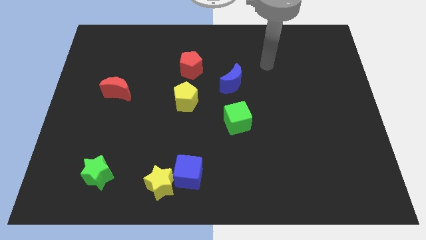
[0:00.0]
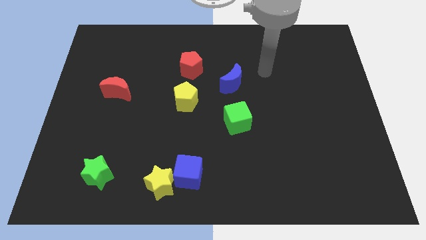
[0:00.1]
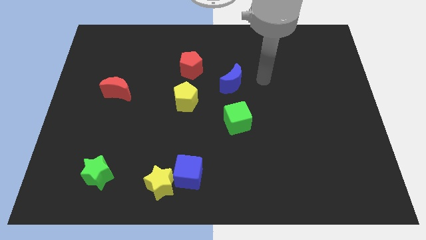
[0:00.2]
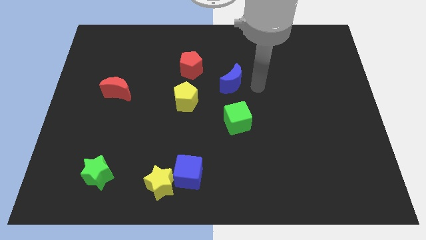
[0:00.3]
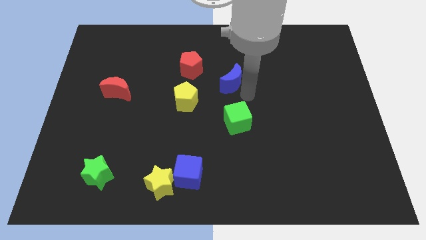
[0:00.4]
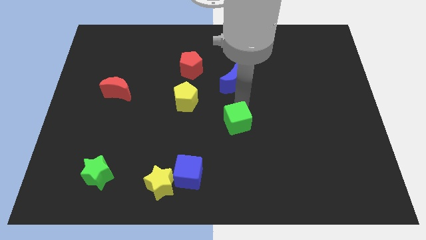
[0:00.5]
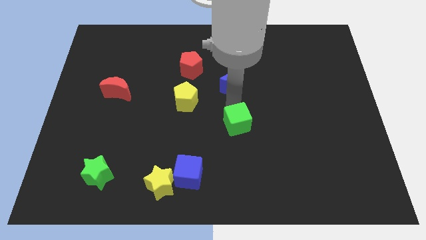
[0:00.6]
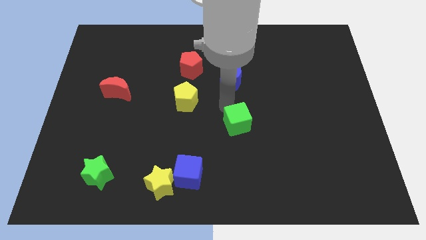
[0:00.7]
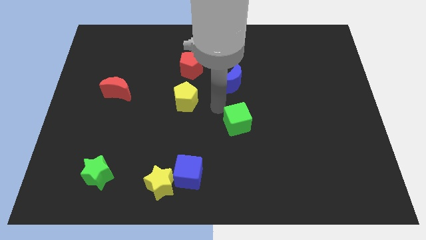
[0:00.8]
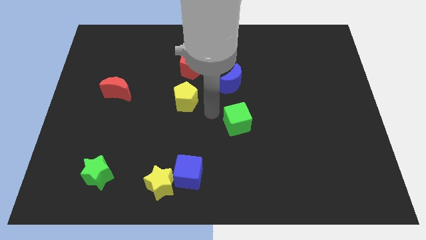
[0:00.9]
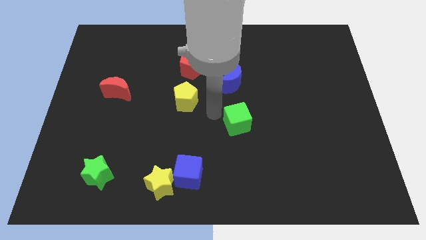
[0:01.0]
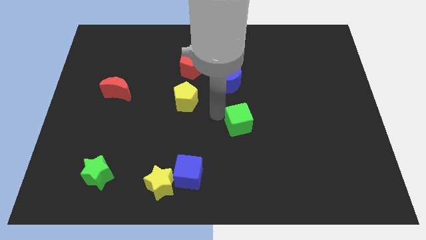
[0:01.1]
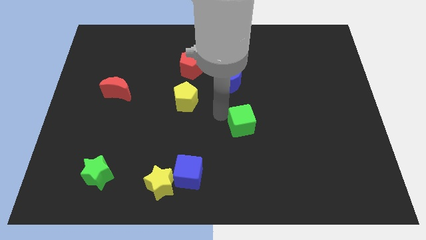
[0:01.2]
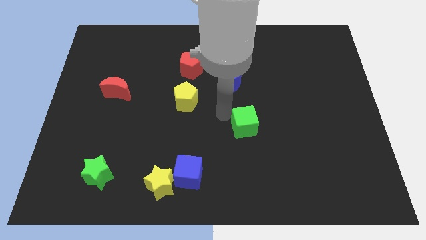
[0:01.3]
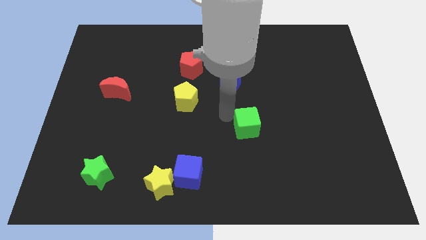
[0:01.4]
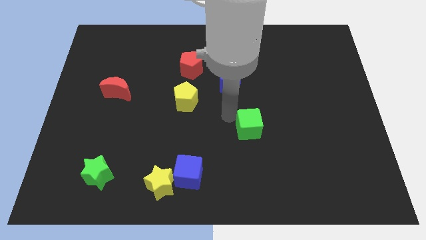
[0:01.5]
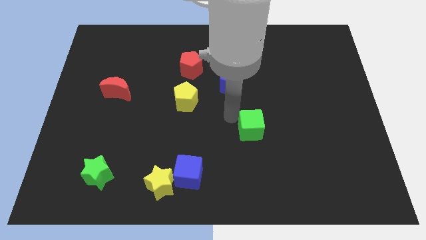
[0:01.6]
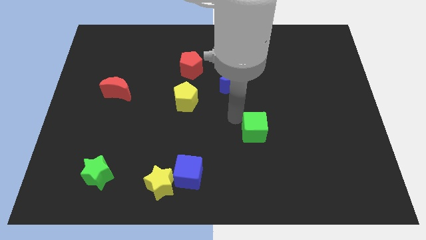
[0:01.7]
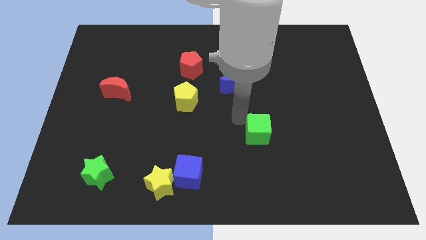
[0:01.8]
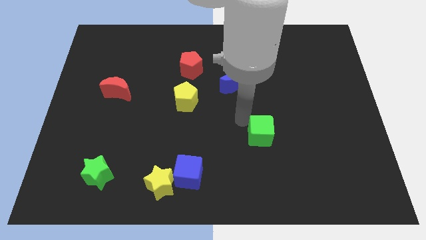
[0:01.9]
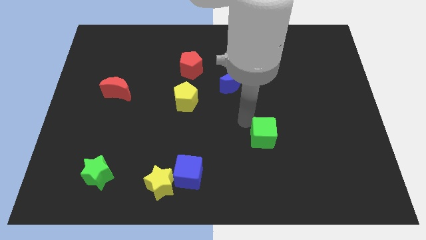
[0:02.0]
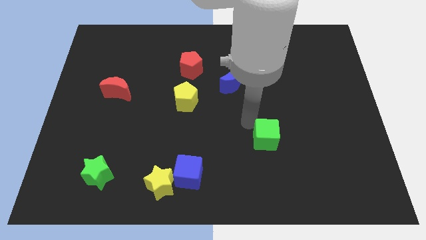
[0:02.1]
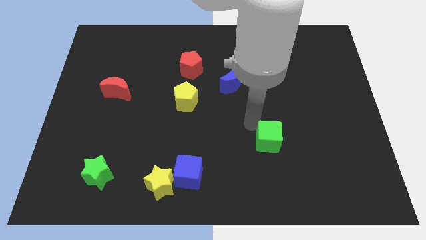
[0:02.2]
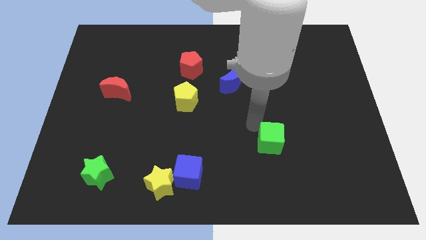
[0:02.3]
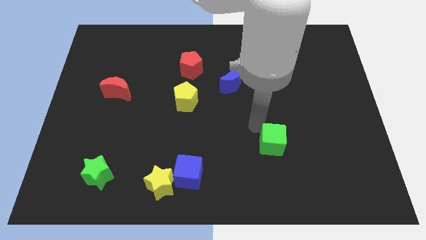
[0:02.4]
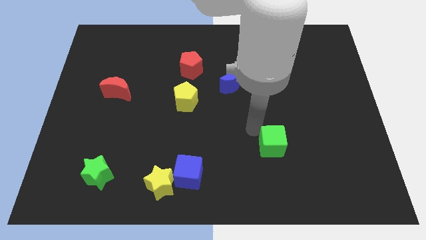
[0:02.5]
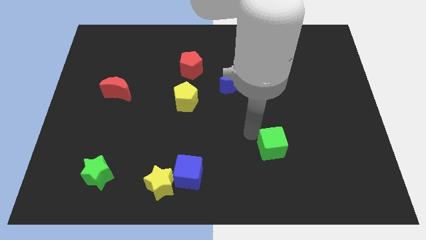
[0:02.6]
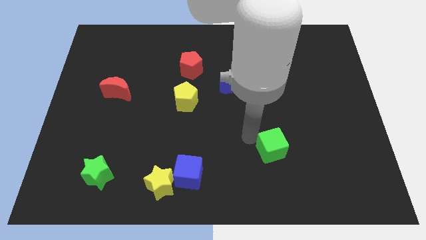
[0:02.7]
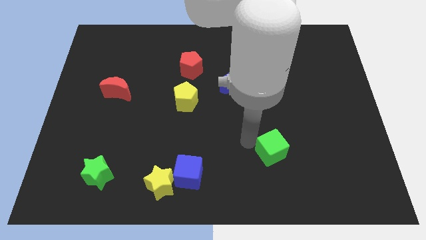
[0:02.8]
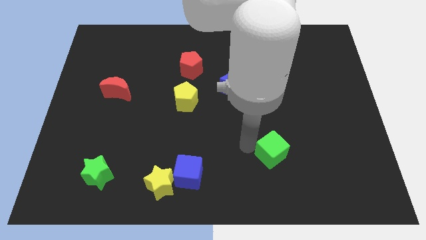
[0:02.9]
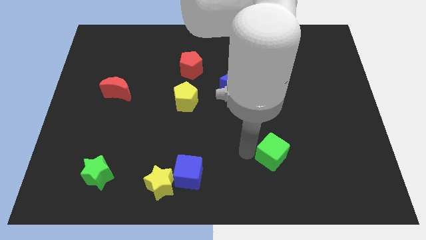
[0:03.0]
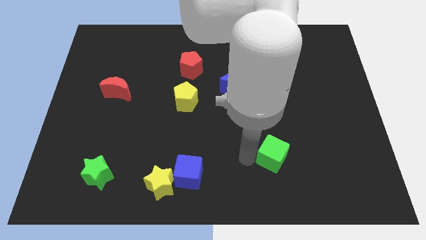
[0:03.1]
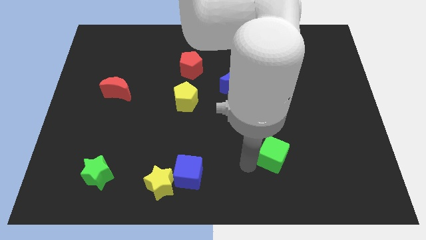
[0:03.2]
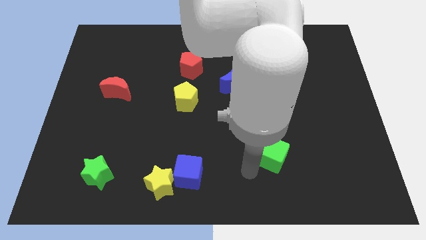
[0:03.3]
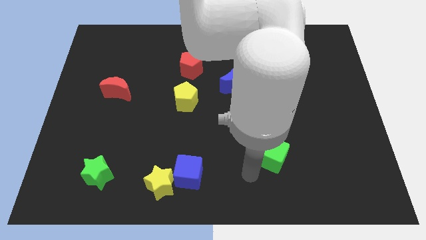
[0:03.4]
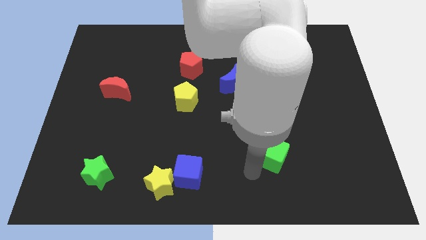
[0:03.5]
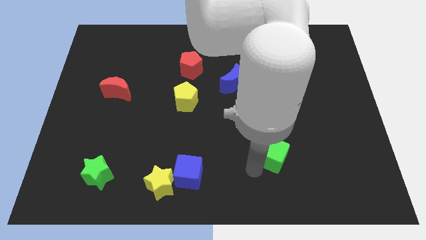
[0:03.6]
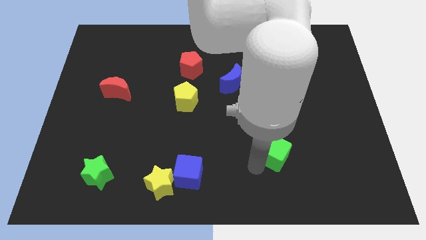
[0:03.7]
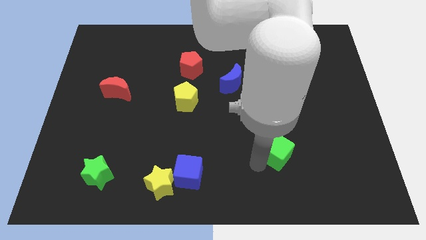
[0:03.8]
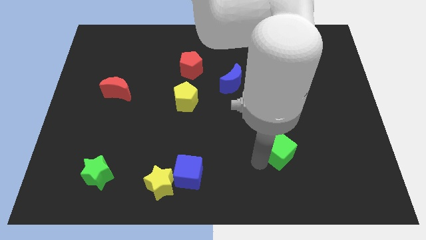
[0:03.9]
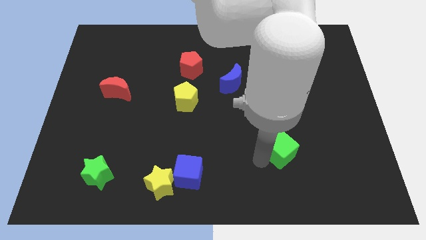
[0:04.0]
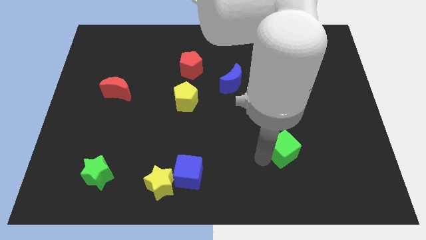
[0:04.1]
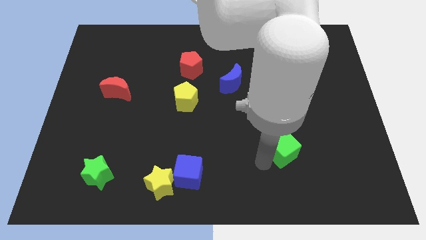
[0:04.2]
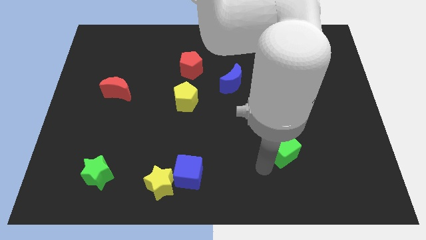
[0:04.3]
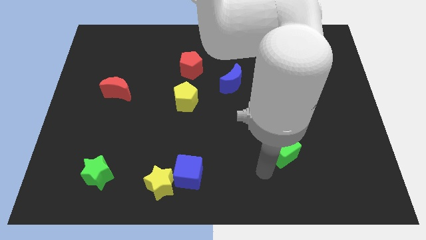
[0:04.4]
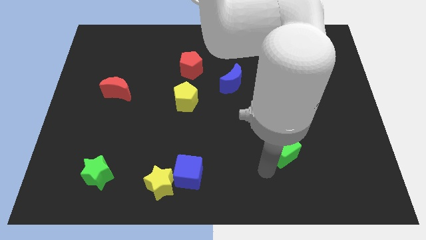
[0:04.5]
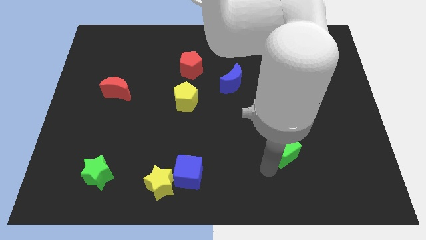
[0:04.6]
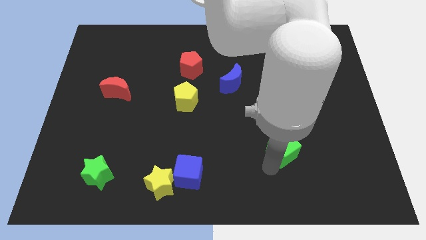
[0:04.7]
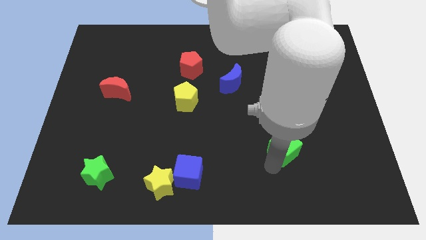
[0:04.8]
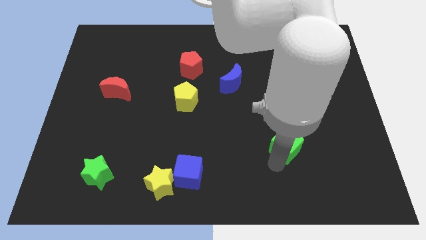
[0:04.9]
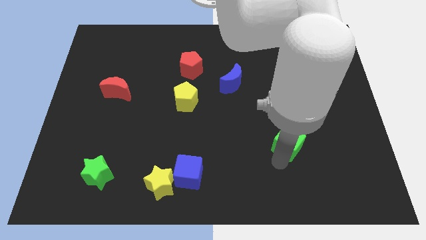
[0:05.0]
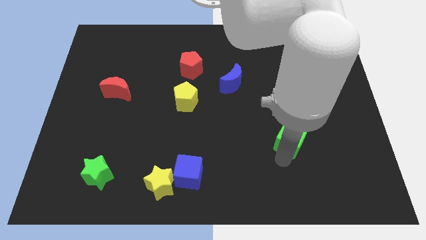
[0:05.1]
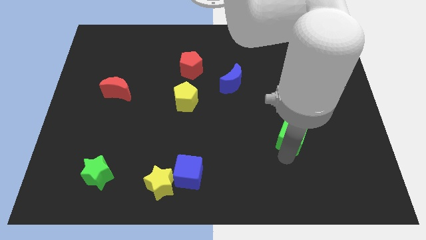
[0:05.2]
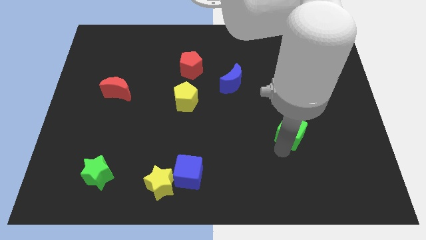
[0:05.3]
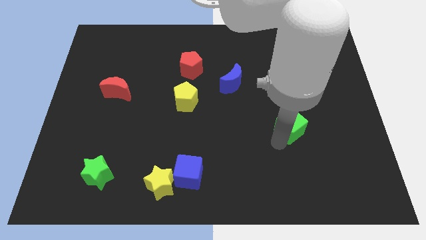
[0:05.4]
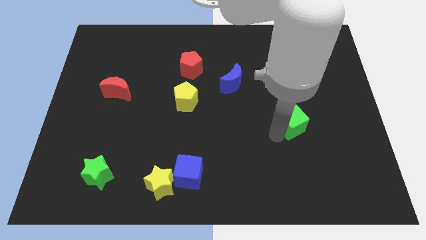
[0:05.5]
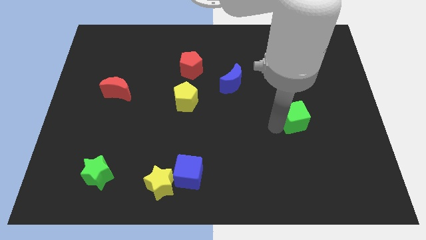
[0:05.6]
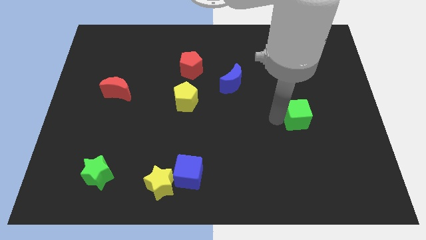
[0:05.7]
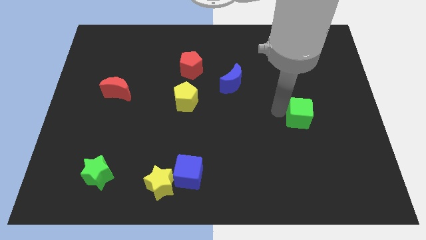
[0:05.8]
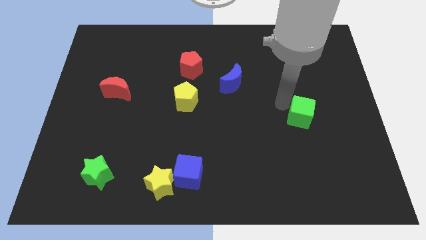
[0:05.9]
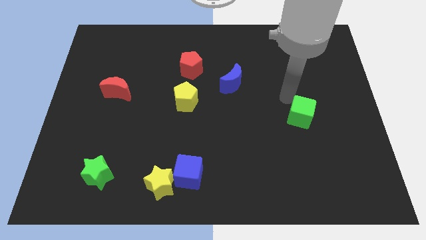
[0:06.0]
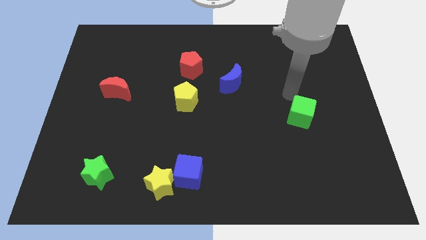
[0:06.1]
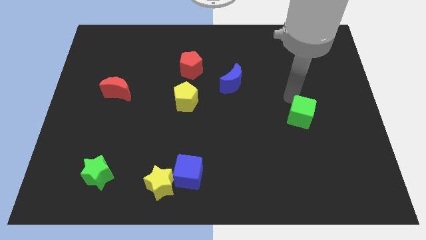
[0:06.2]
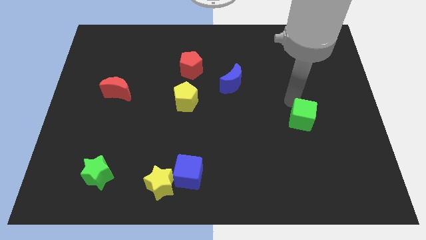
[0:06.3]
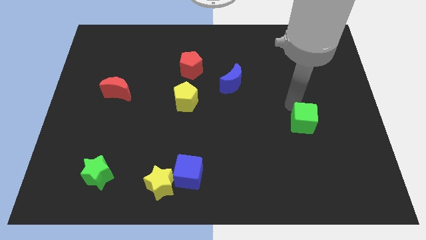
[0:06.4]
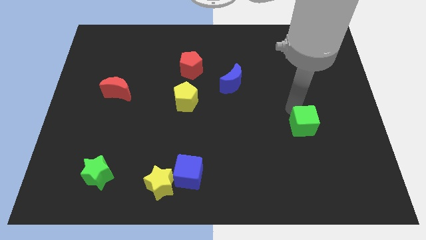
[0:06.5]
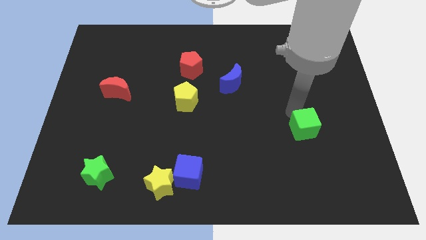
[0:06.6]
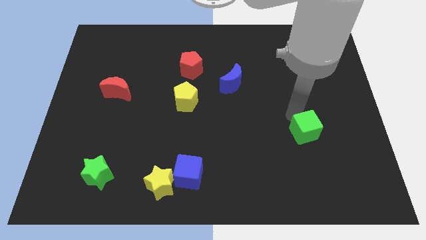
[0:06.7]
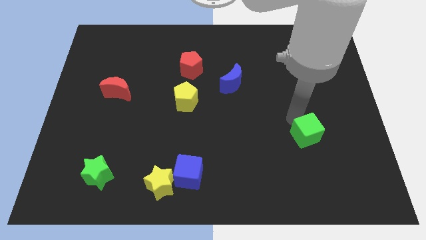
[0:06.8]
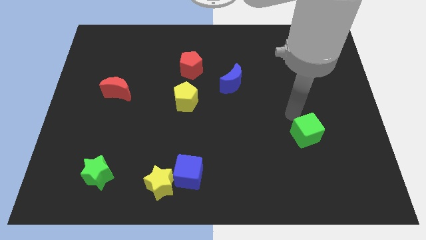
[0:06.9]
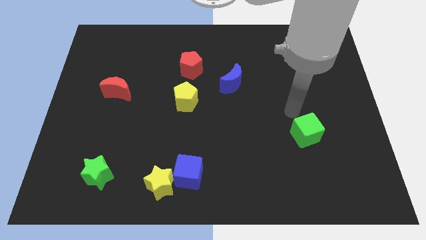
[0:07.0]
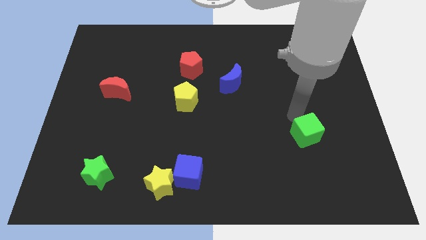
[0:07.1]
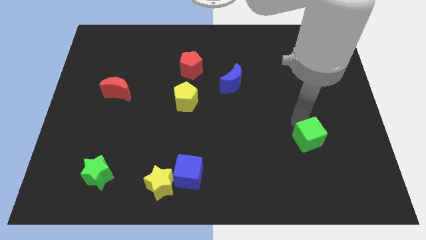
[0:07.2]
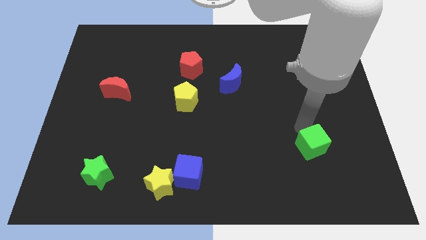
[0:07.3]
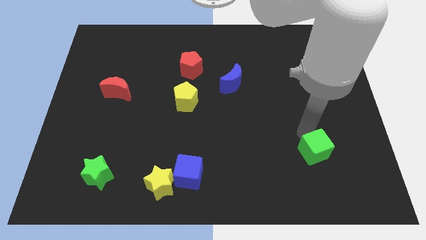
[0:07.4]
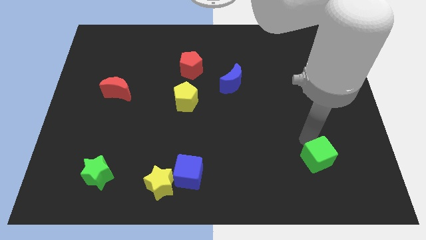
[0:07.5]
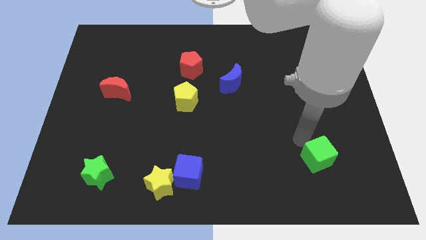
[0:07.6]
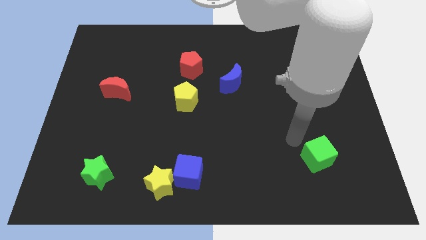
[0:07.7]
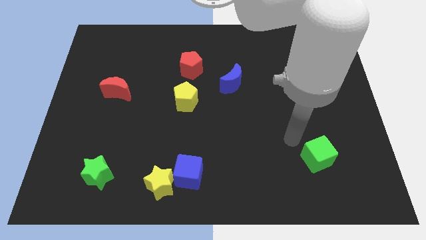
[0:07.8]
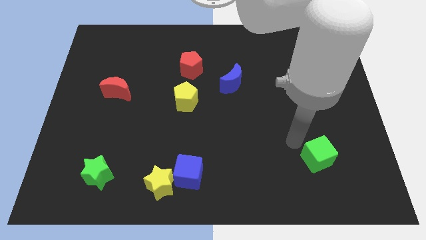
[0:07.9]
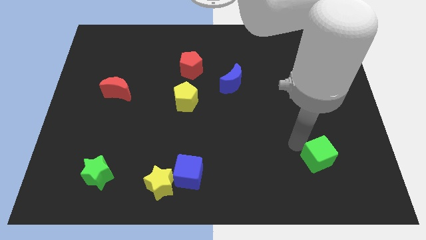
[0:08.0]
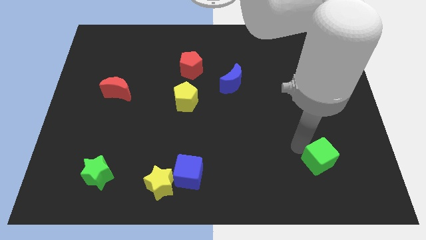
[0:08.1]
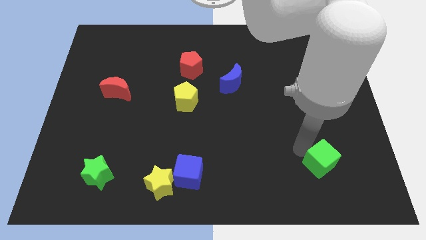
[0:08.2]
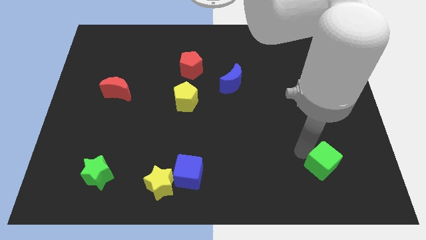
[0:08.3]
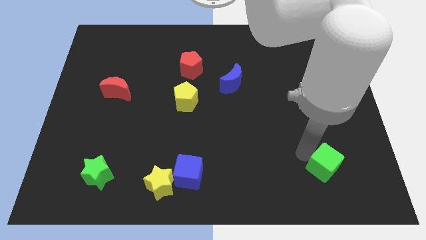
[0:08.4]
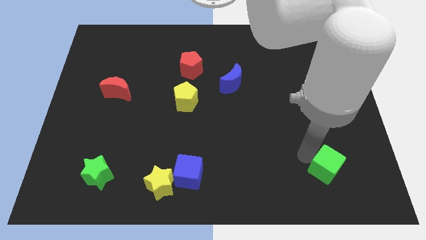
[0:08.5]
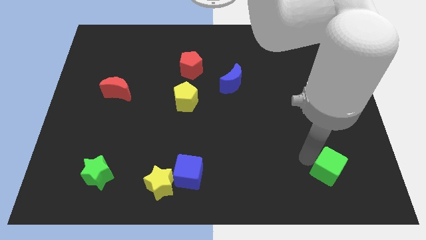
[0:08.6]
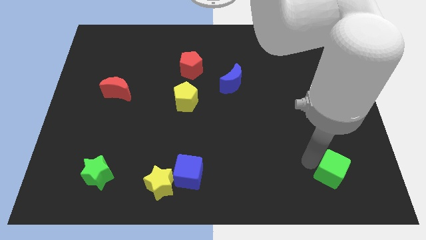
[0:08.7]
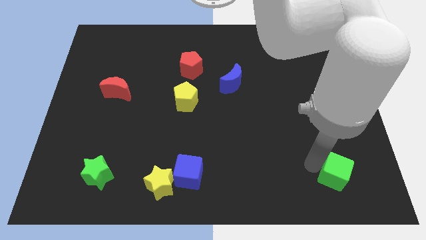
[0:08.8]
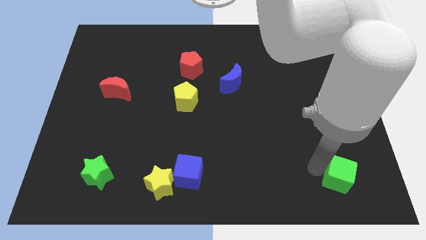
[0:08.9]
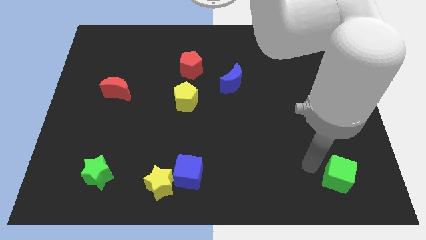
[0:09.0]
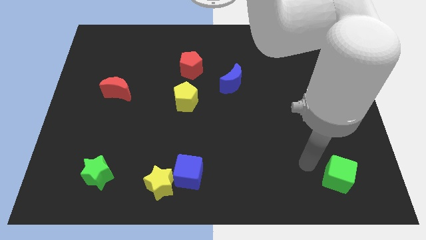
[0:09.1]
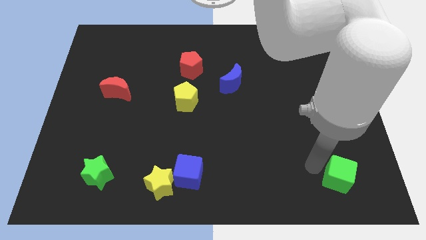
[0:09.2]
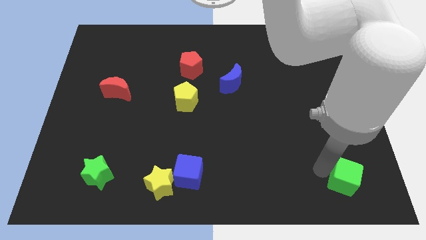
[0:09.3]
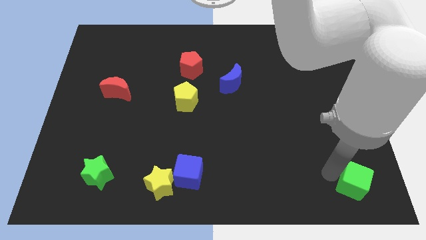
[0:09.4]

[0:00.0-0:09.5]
push the green cube to the lower right corner
